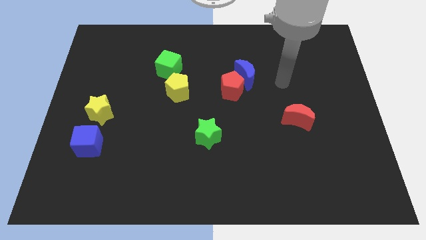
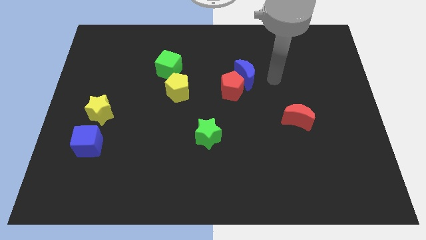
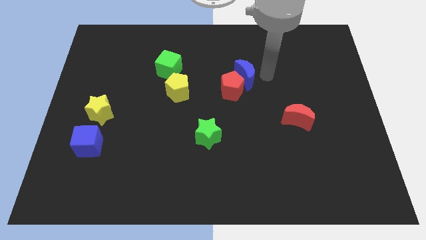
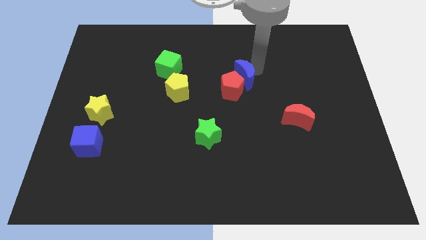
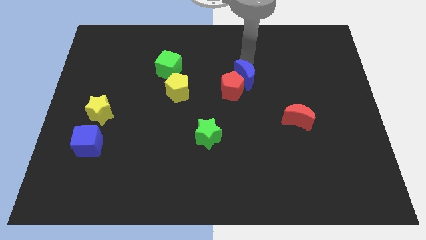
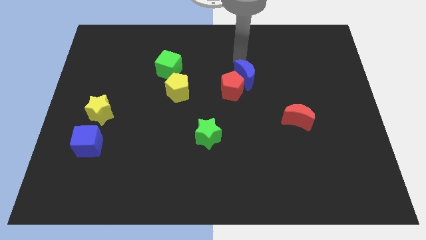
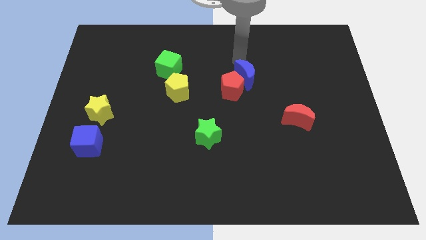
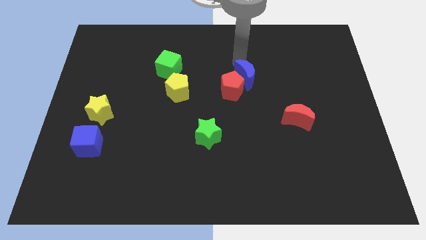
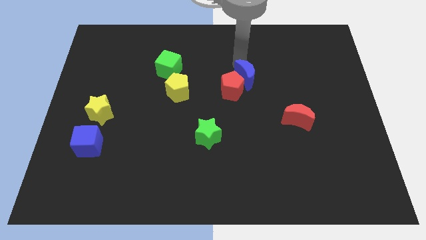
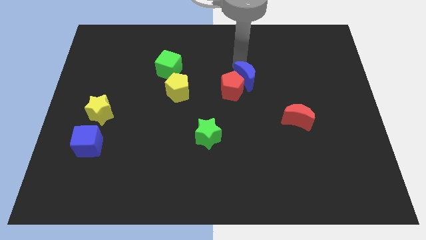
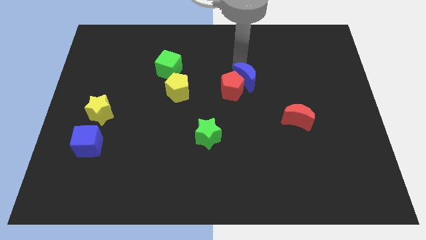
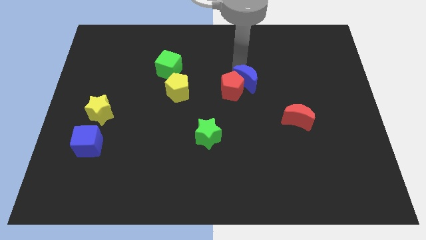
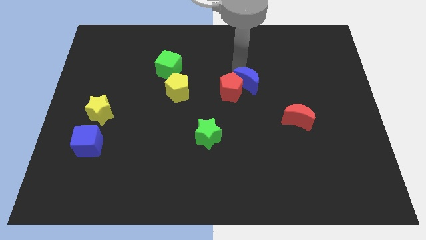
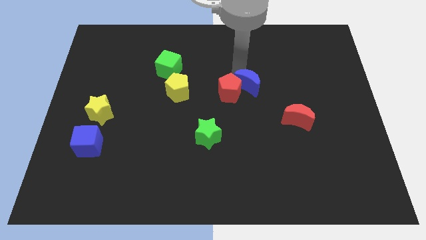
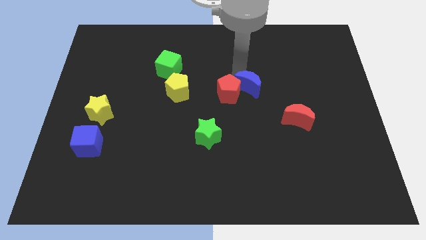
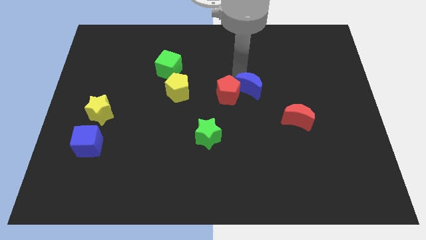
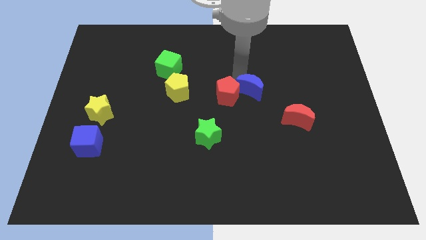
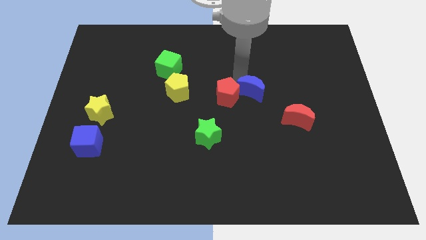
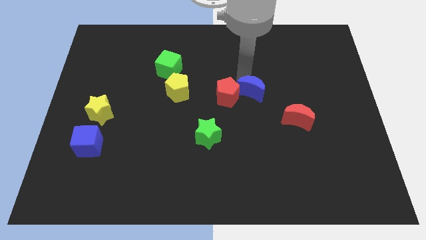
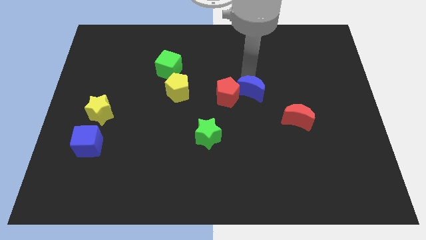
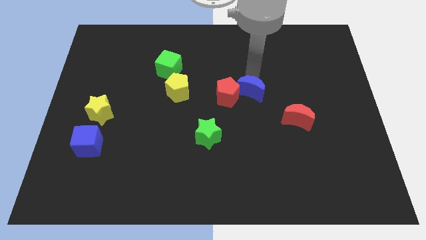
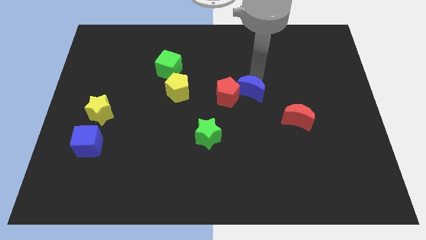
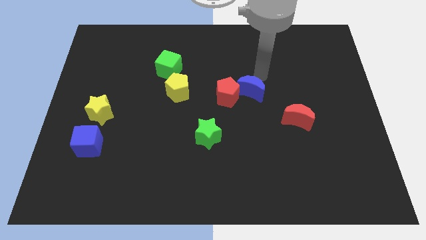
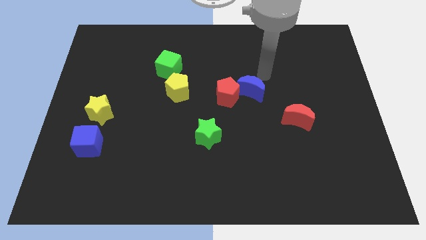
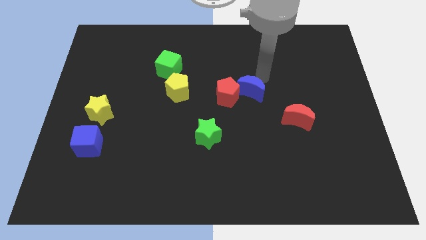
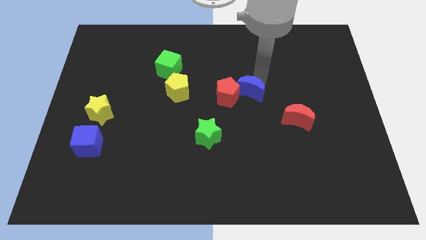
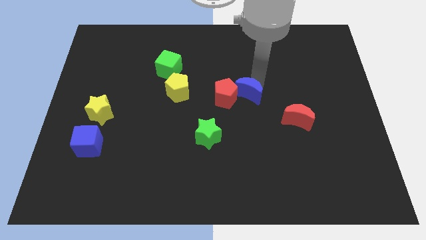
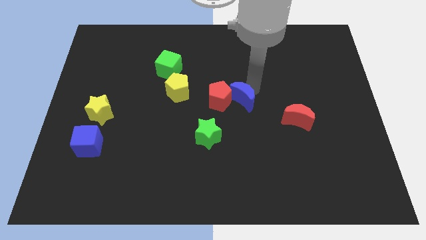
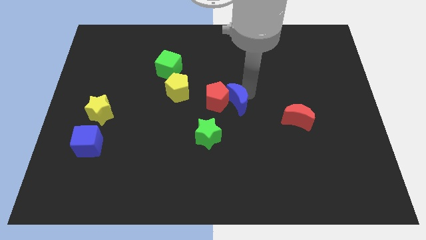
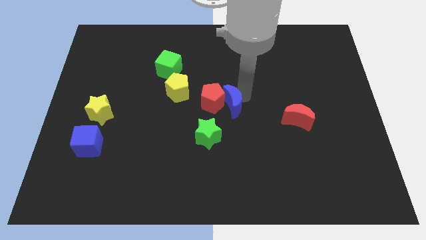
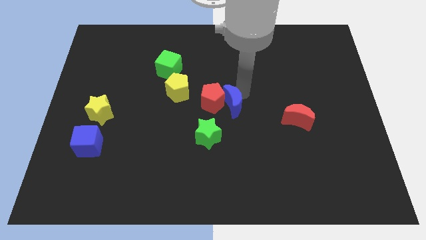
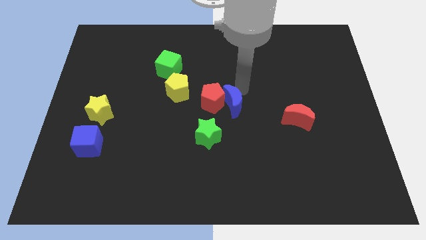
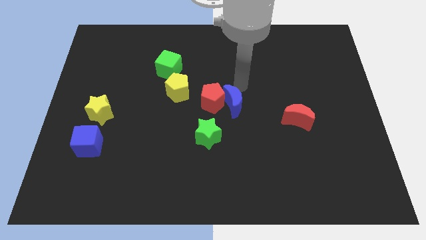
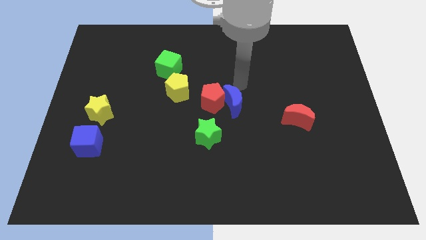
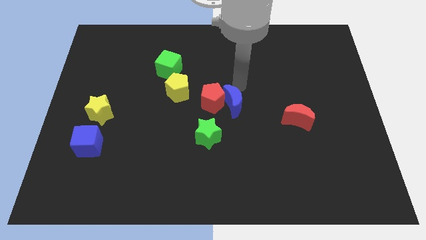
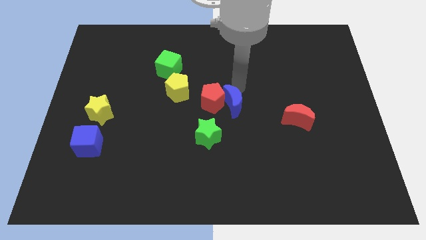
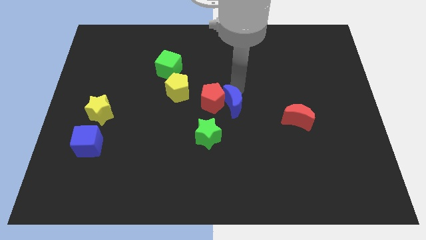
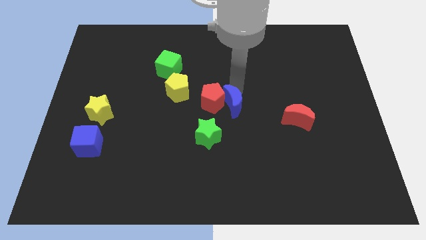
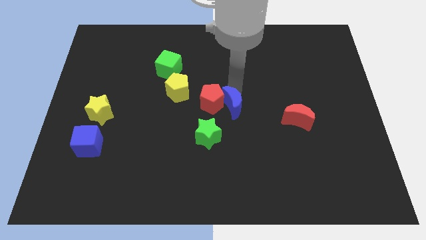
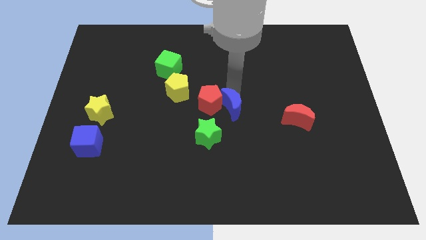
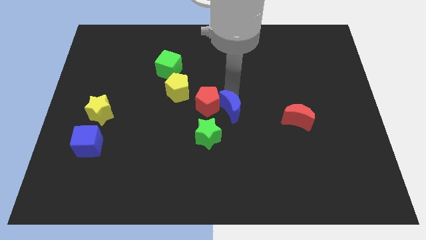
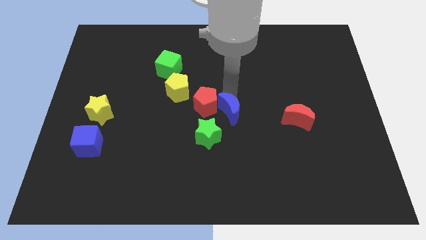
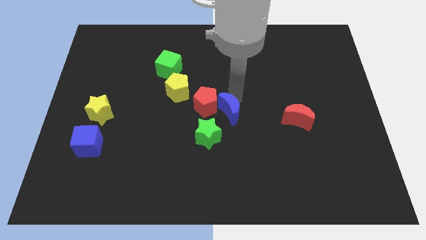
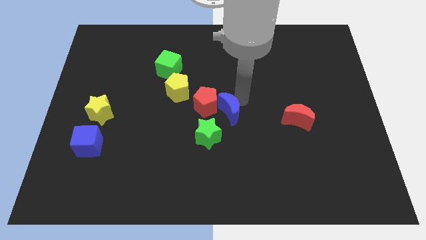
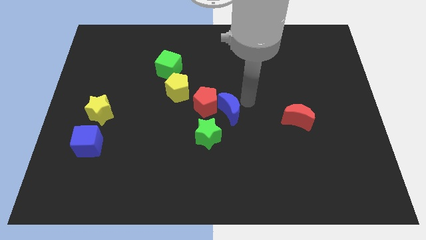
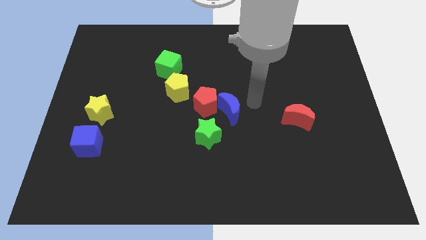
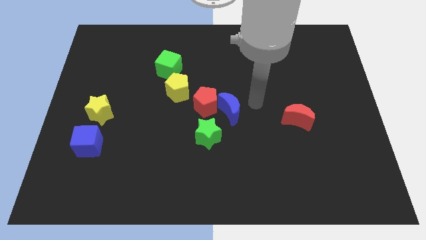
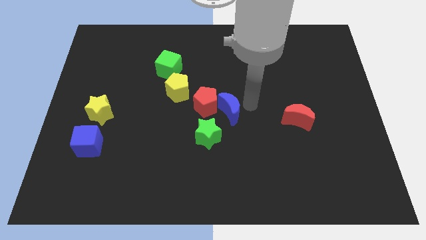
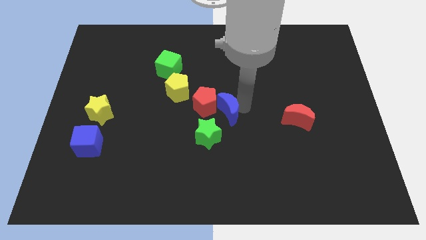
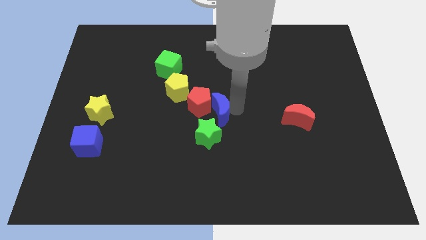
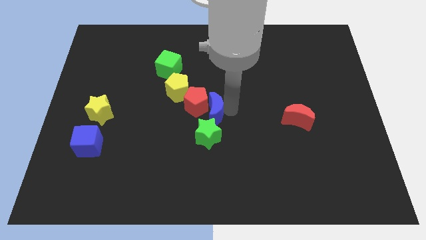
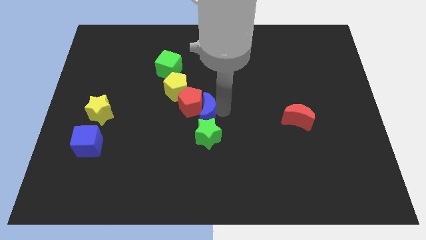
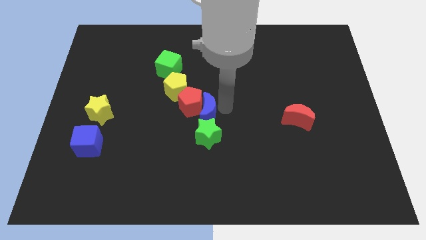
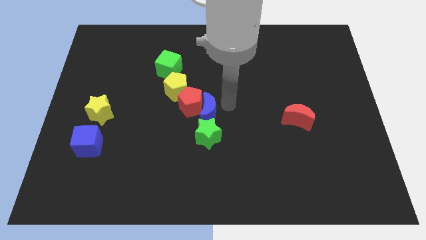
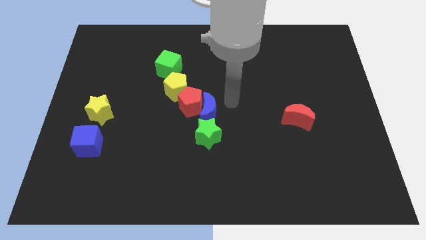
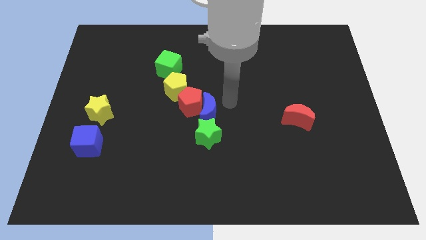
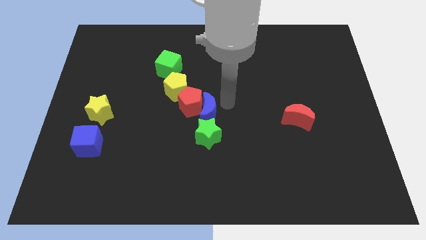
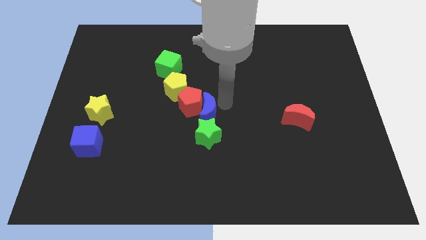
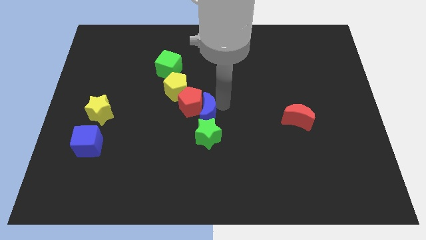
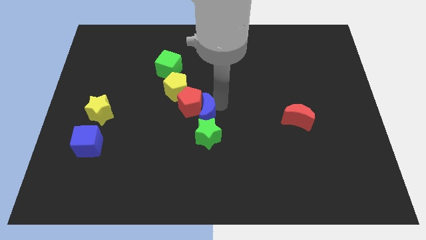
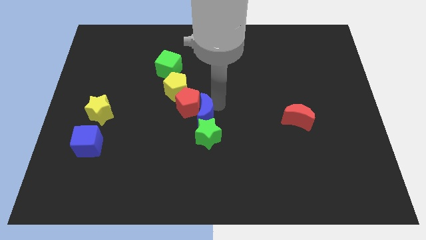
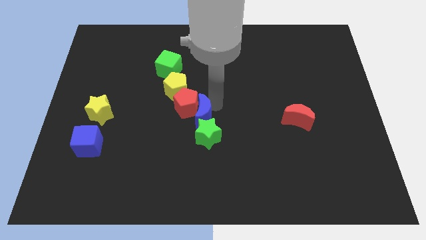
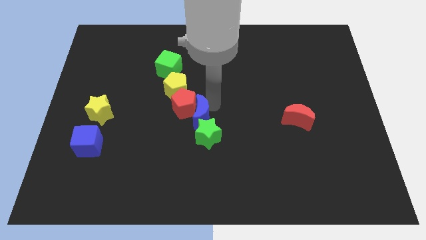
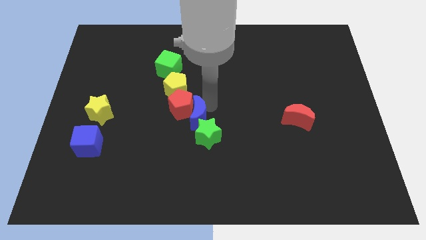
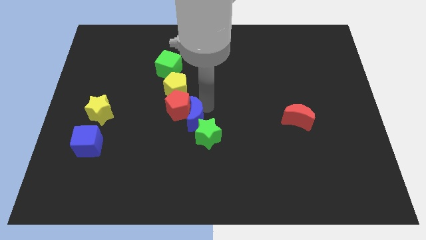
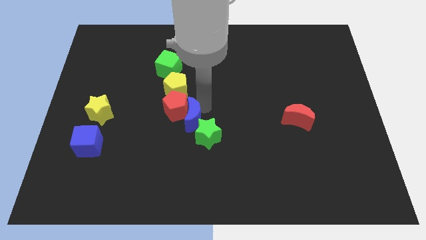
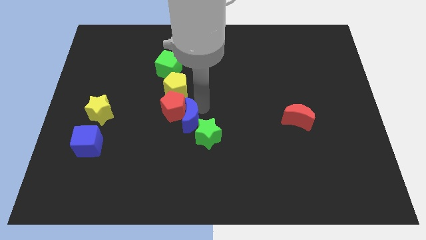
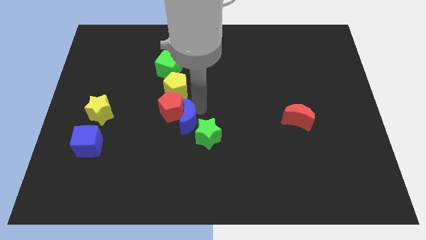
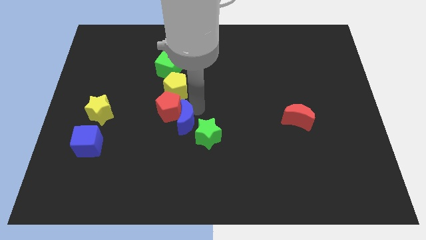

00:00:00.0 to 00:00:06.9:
move the blue moon down and then to the left

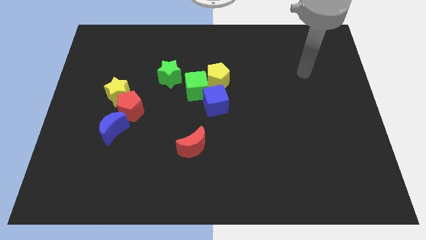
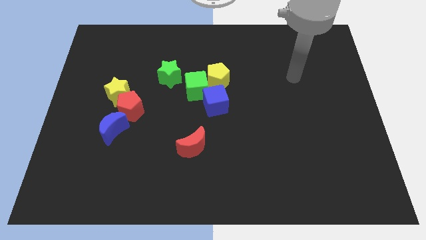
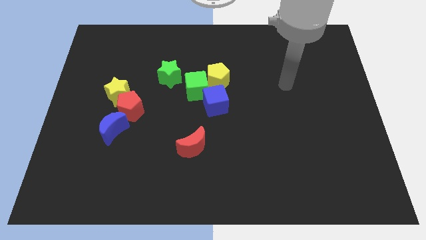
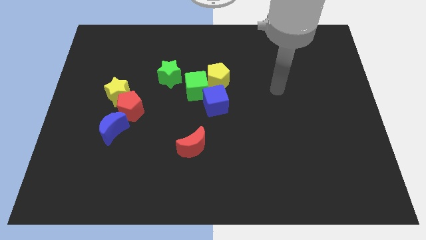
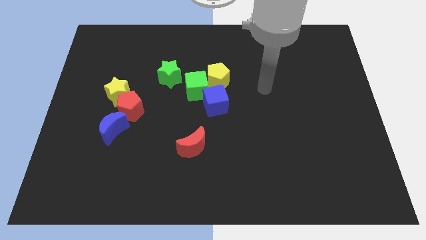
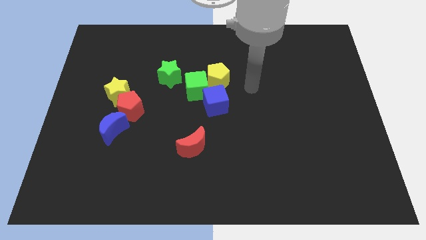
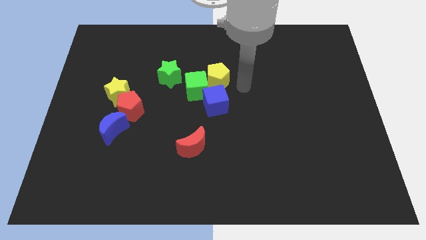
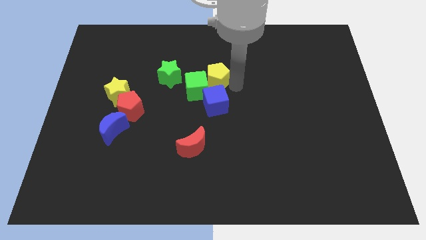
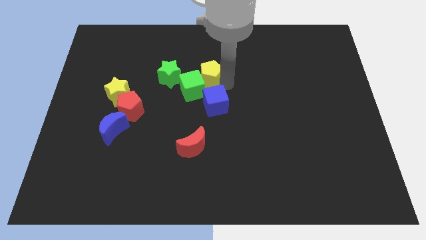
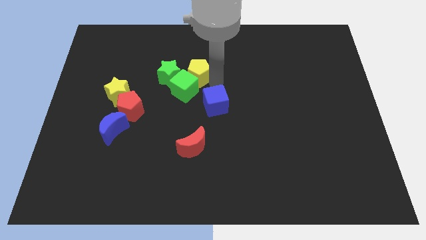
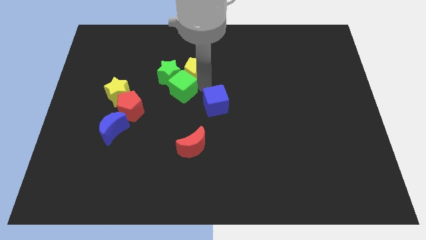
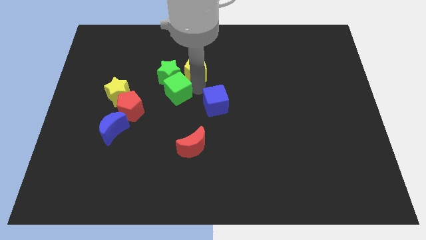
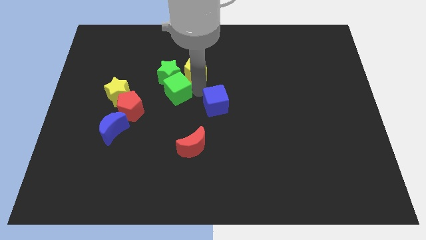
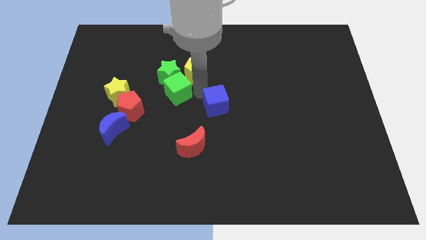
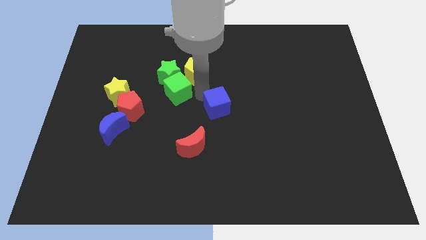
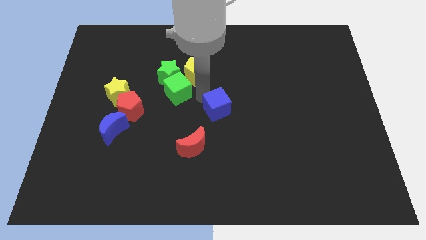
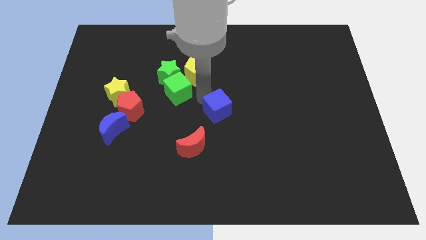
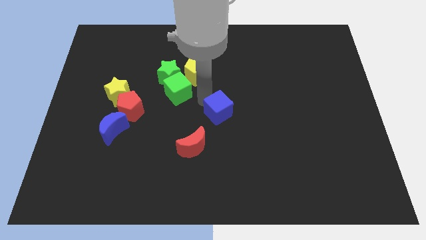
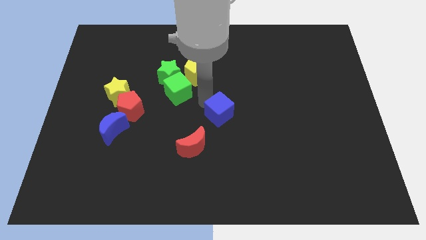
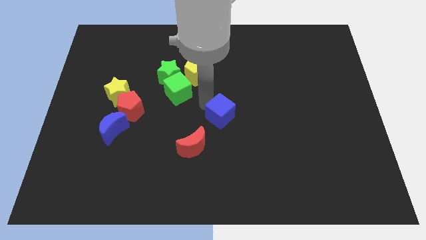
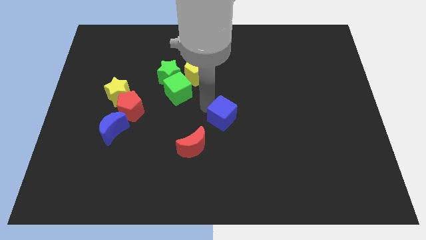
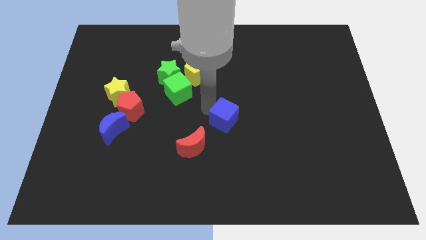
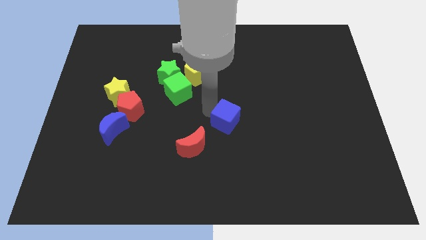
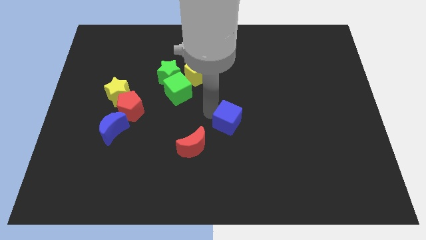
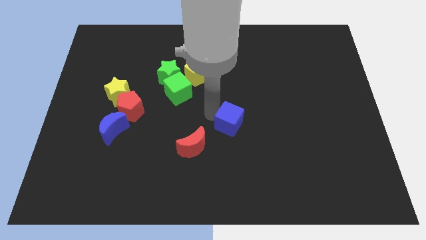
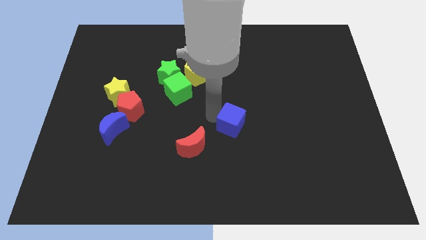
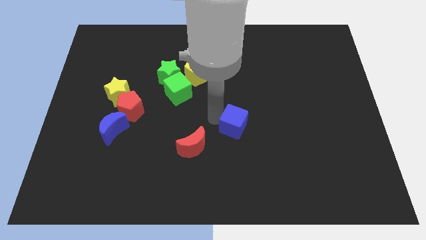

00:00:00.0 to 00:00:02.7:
slide the blue cube diagonally down and right a little
